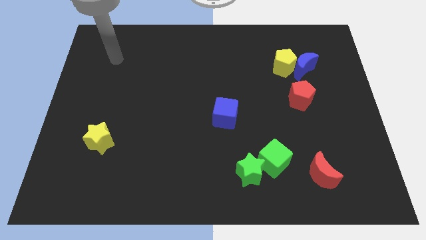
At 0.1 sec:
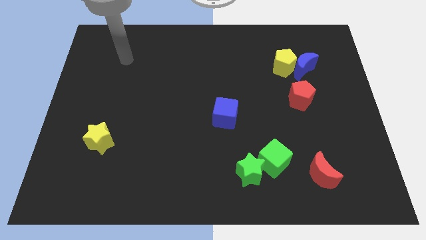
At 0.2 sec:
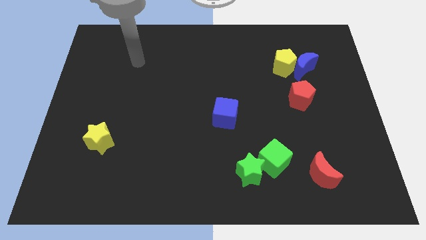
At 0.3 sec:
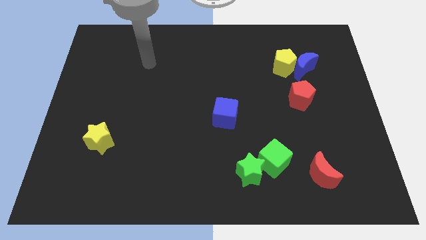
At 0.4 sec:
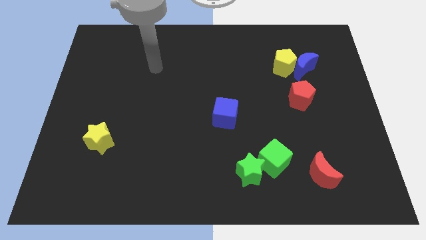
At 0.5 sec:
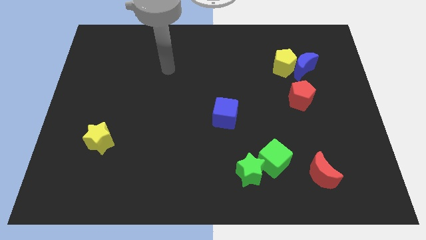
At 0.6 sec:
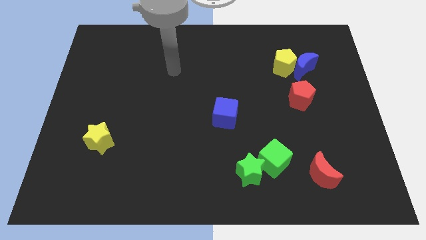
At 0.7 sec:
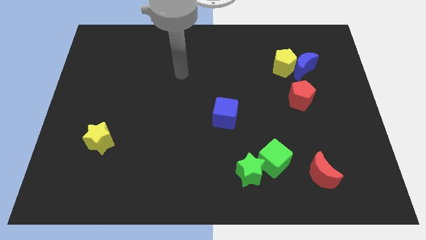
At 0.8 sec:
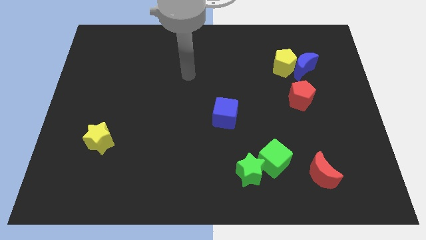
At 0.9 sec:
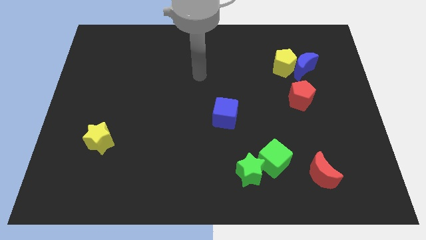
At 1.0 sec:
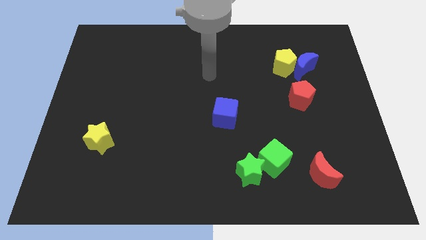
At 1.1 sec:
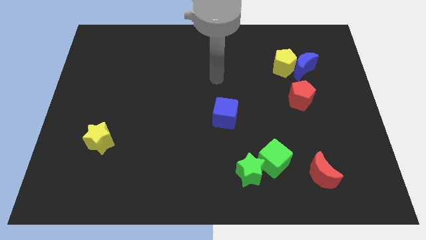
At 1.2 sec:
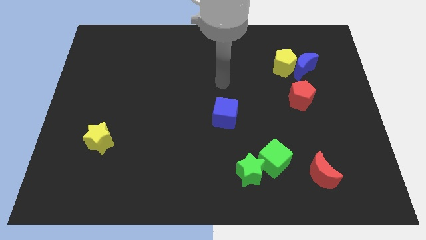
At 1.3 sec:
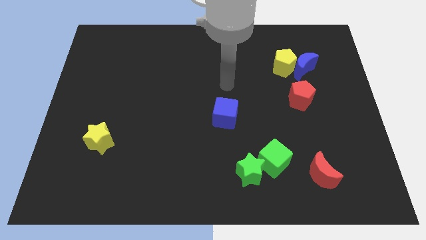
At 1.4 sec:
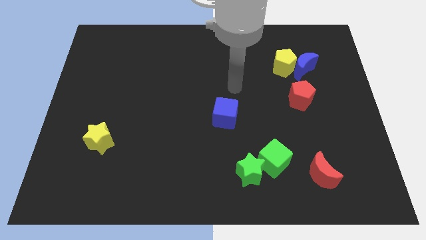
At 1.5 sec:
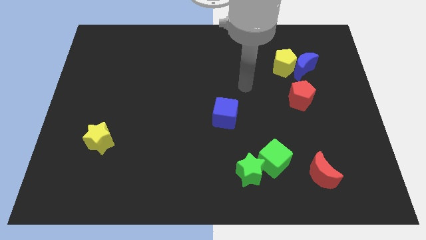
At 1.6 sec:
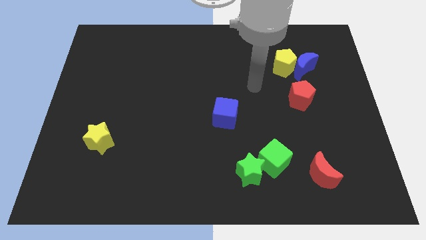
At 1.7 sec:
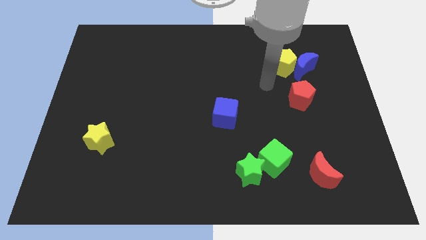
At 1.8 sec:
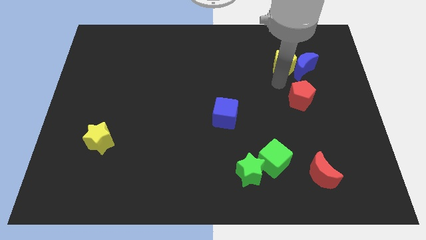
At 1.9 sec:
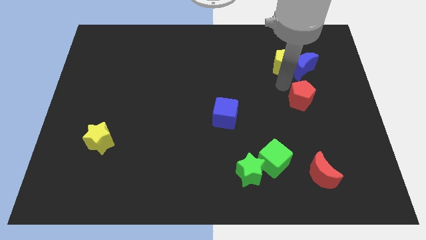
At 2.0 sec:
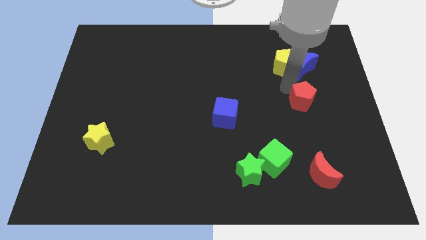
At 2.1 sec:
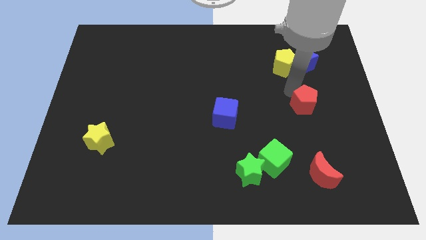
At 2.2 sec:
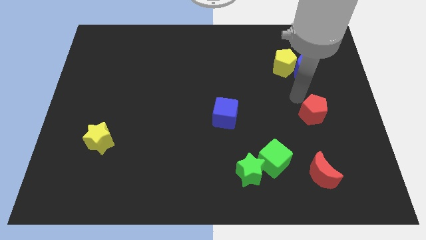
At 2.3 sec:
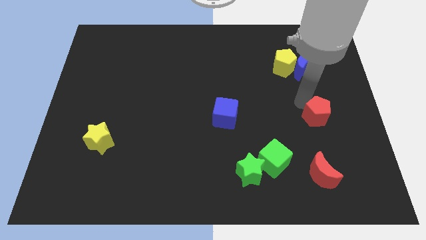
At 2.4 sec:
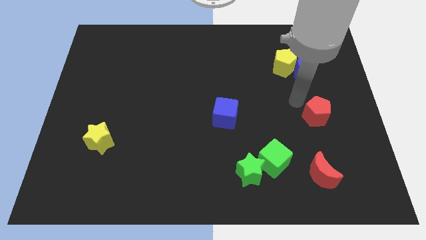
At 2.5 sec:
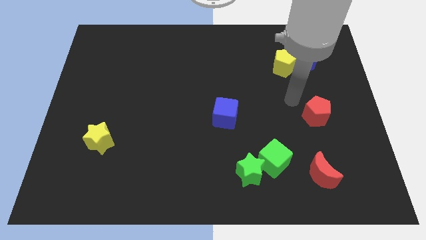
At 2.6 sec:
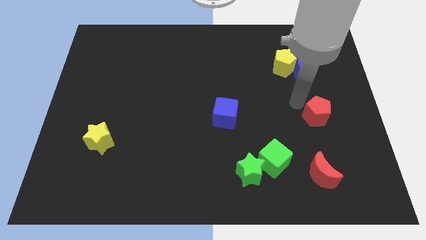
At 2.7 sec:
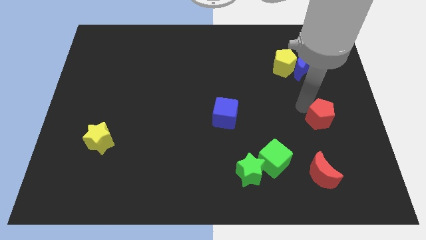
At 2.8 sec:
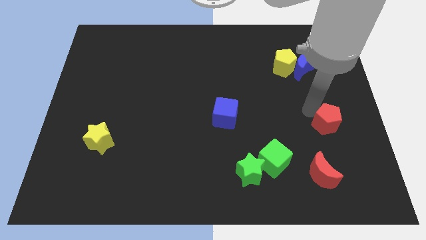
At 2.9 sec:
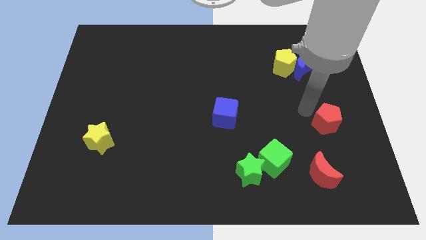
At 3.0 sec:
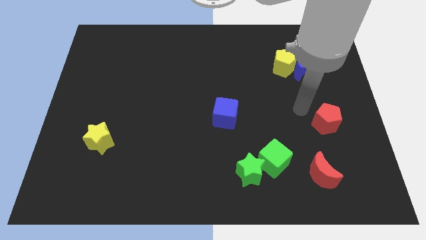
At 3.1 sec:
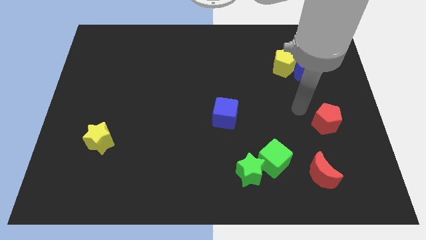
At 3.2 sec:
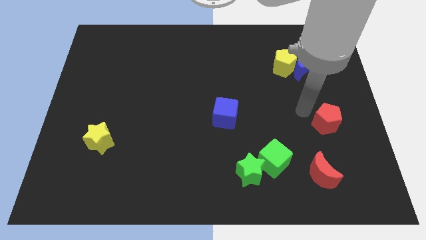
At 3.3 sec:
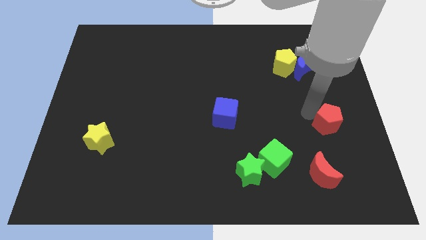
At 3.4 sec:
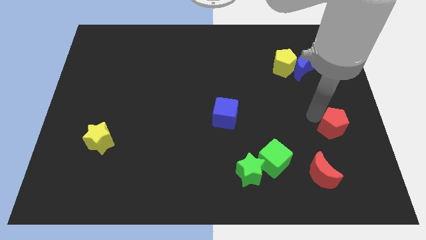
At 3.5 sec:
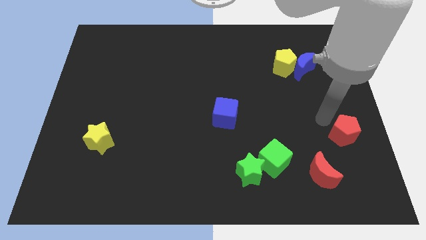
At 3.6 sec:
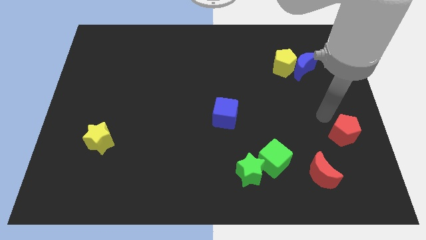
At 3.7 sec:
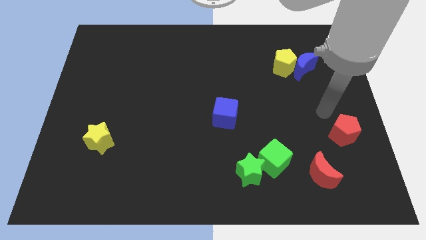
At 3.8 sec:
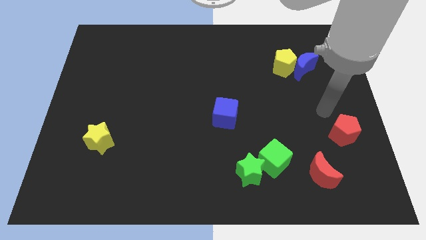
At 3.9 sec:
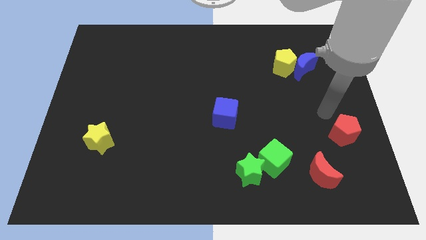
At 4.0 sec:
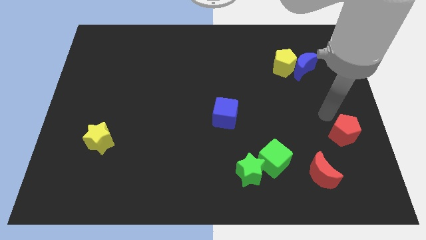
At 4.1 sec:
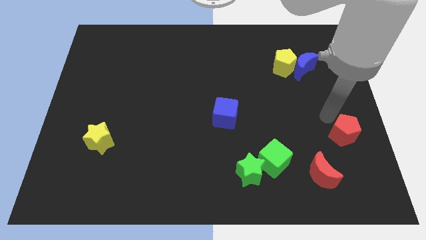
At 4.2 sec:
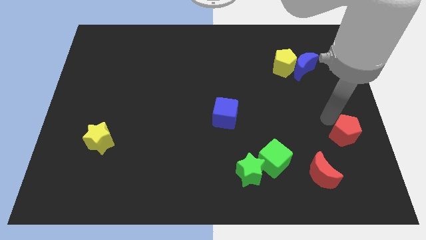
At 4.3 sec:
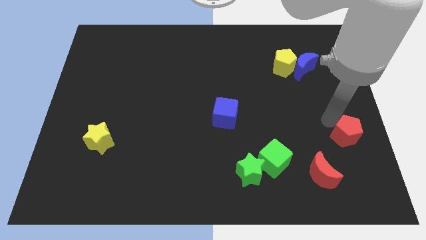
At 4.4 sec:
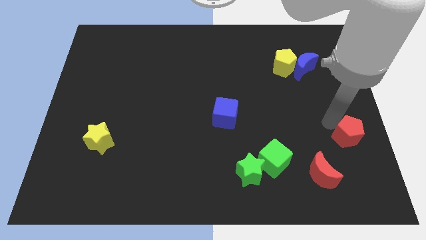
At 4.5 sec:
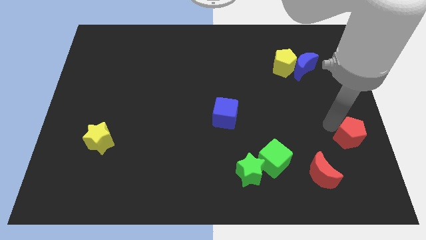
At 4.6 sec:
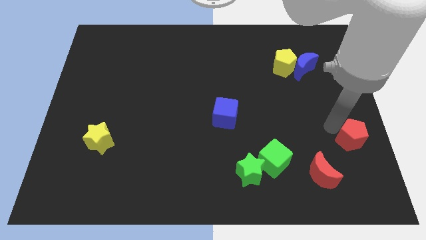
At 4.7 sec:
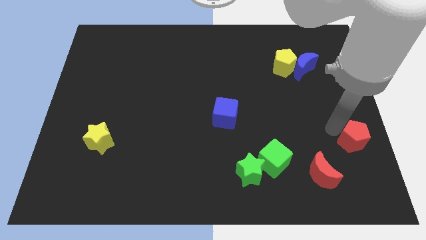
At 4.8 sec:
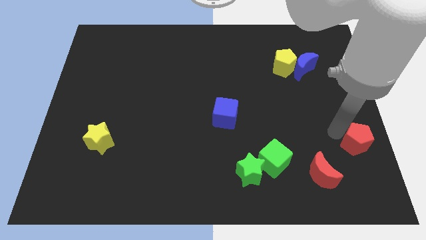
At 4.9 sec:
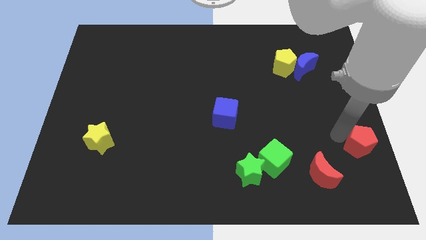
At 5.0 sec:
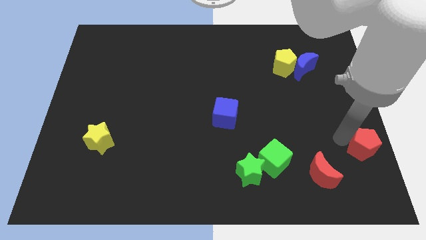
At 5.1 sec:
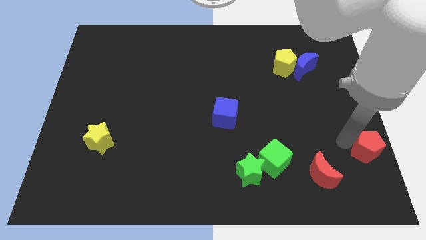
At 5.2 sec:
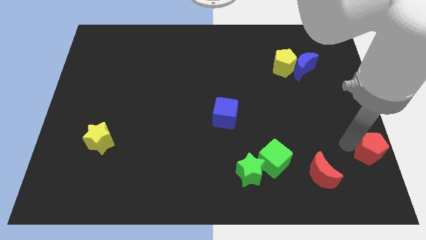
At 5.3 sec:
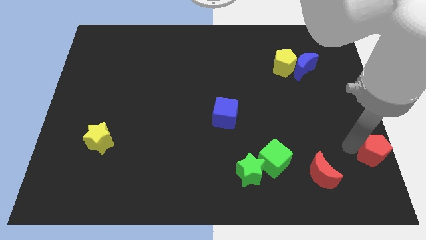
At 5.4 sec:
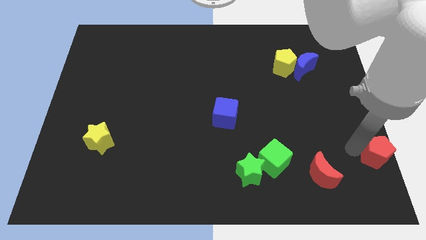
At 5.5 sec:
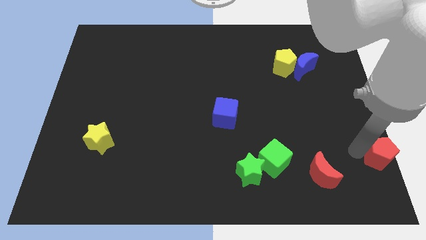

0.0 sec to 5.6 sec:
move the red pentagon to the lower right corner

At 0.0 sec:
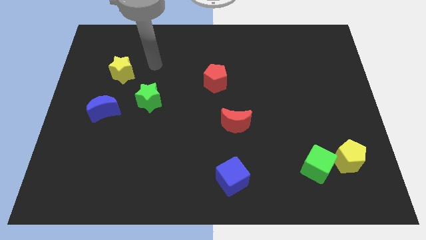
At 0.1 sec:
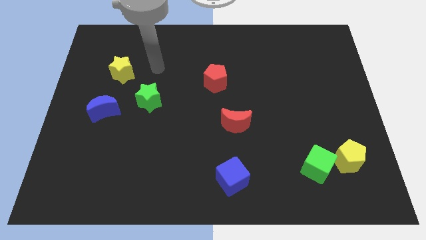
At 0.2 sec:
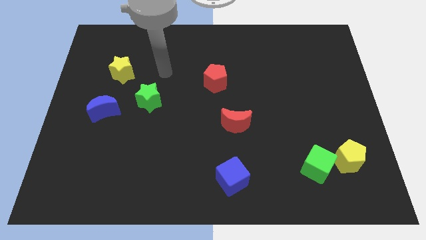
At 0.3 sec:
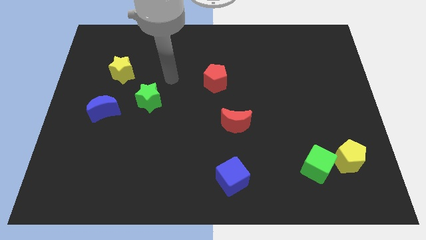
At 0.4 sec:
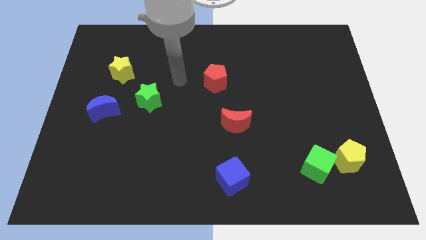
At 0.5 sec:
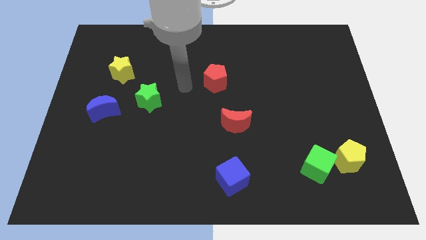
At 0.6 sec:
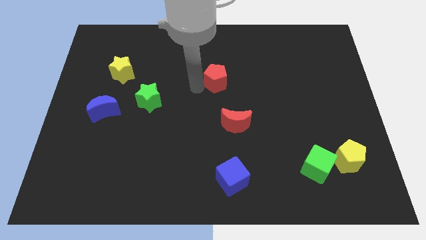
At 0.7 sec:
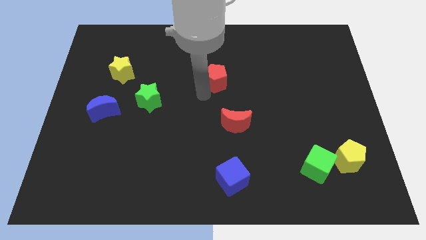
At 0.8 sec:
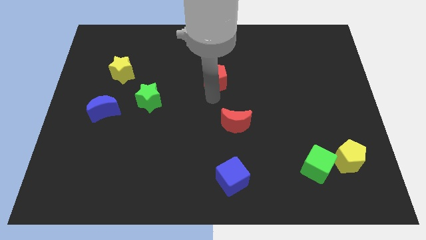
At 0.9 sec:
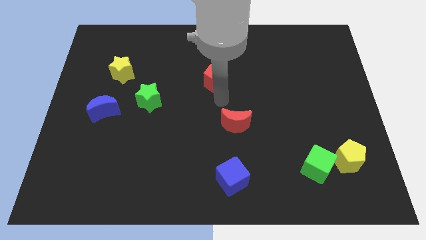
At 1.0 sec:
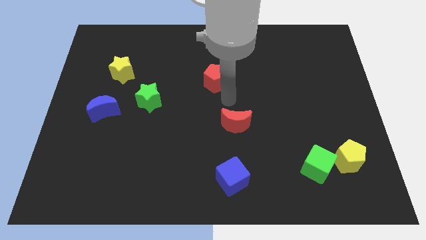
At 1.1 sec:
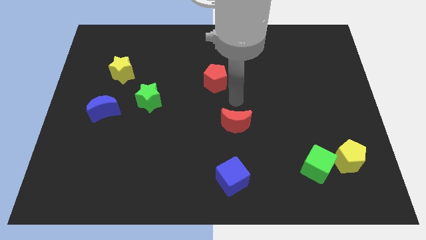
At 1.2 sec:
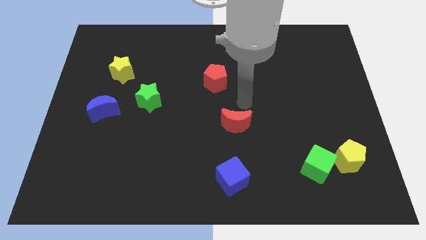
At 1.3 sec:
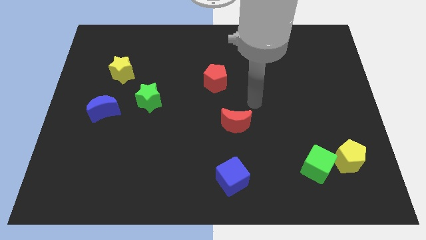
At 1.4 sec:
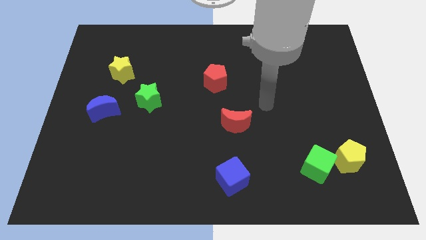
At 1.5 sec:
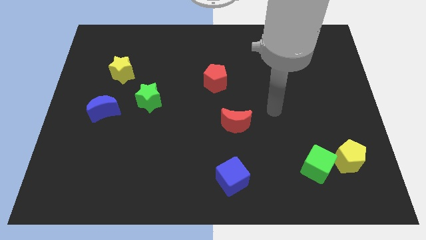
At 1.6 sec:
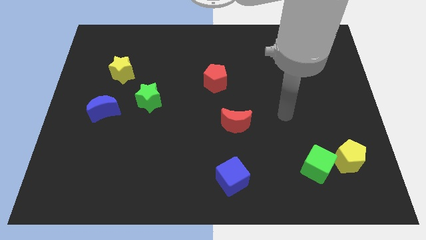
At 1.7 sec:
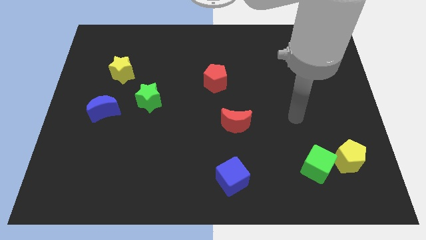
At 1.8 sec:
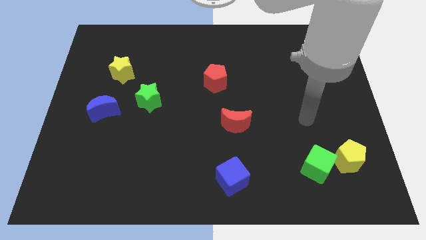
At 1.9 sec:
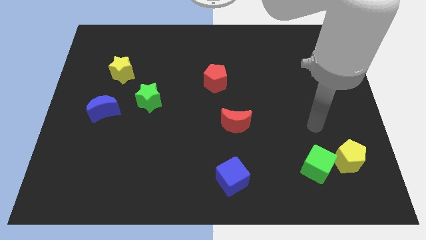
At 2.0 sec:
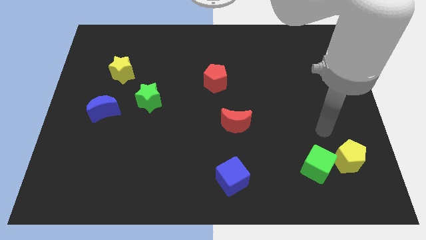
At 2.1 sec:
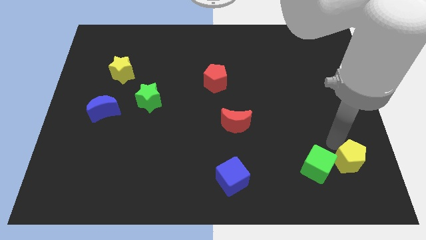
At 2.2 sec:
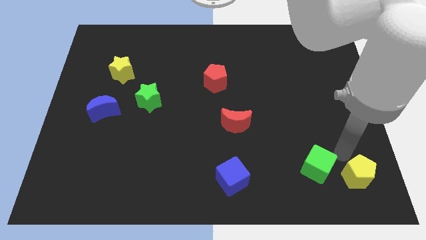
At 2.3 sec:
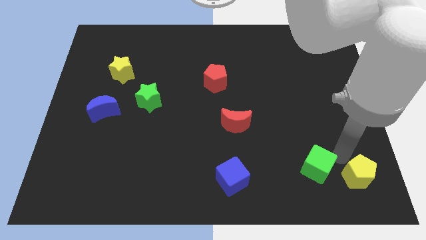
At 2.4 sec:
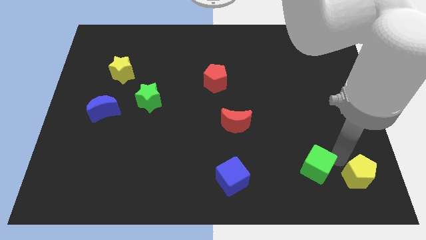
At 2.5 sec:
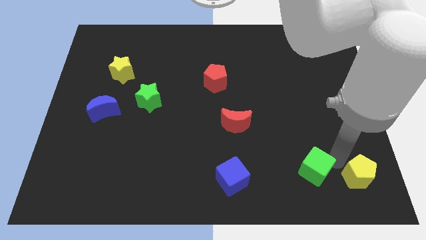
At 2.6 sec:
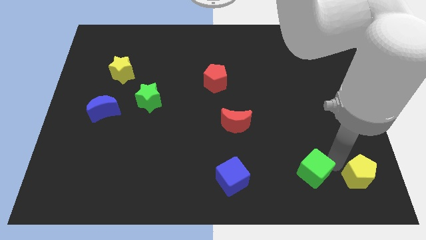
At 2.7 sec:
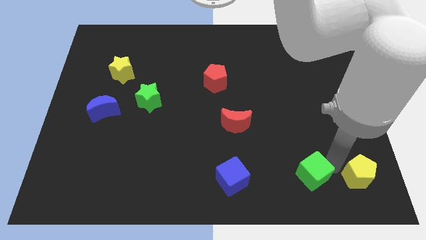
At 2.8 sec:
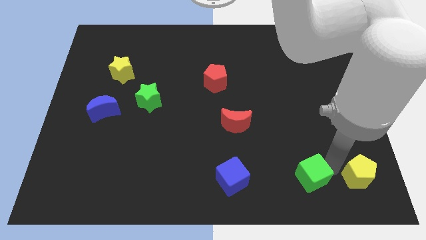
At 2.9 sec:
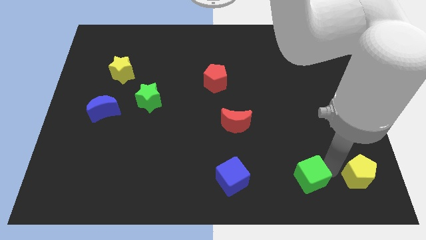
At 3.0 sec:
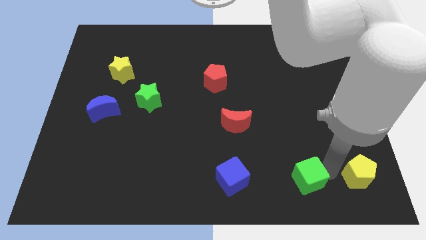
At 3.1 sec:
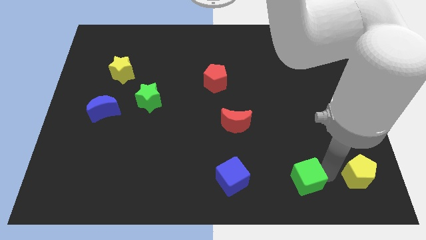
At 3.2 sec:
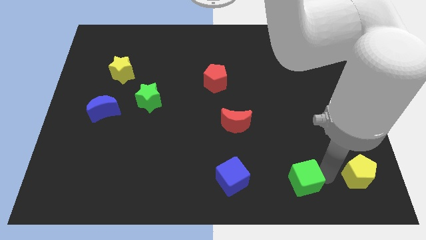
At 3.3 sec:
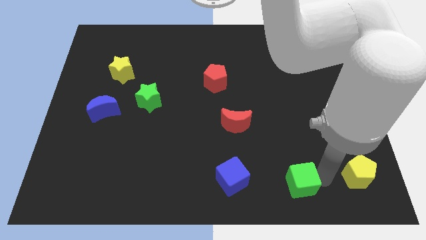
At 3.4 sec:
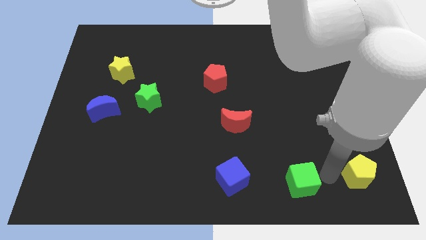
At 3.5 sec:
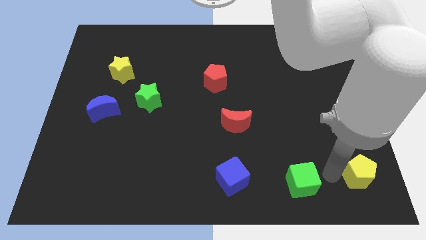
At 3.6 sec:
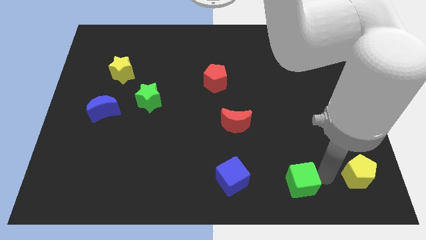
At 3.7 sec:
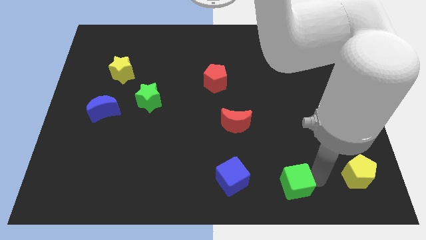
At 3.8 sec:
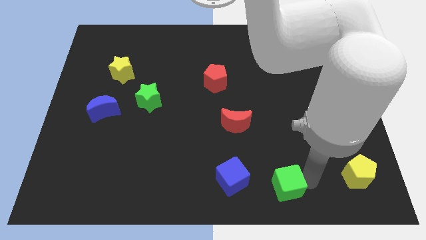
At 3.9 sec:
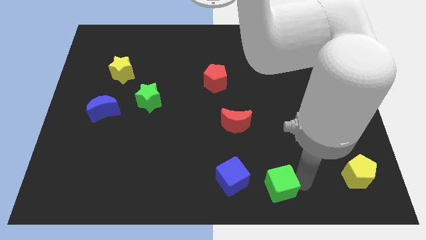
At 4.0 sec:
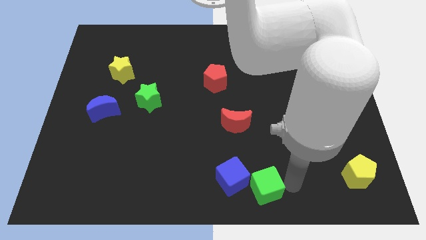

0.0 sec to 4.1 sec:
move the green cube to the bottom
